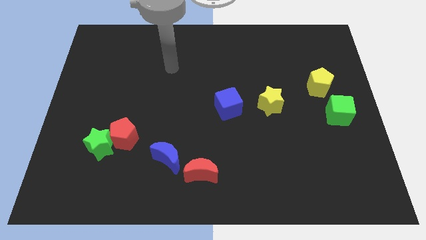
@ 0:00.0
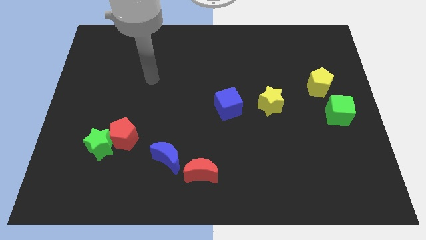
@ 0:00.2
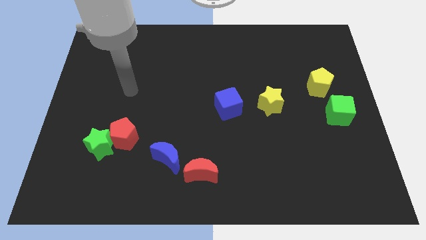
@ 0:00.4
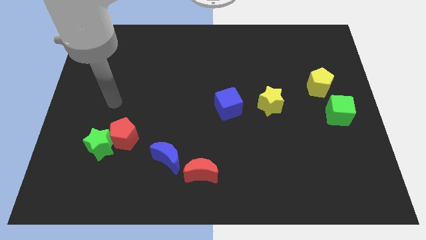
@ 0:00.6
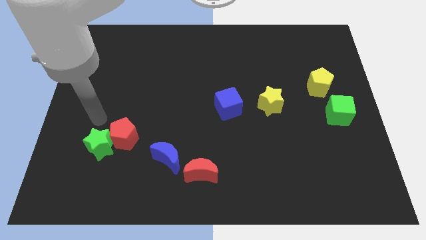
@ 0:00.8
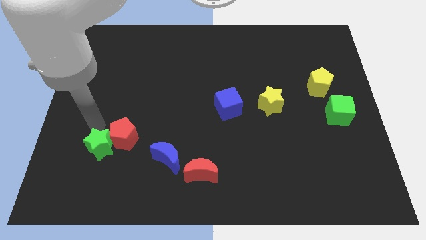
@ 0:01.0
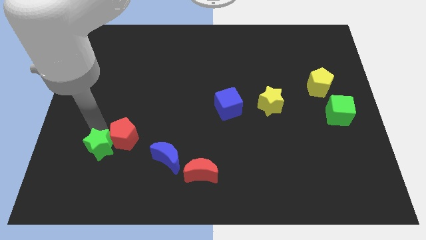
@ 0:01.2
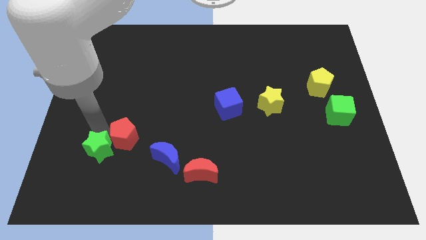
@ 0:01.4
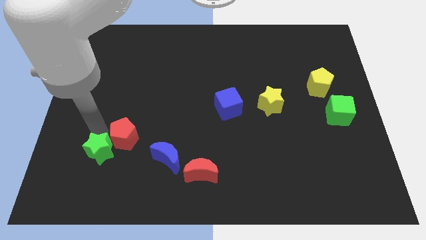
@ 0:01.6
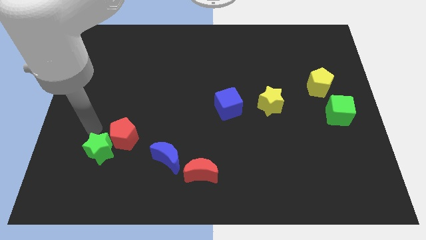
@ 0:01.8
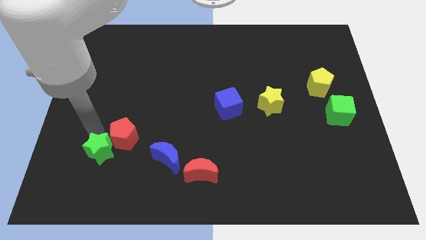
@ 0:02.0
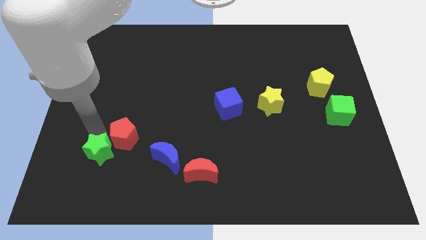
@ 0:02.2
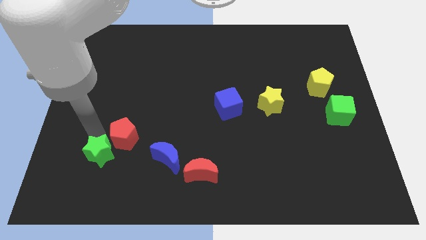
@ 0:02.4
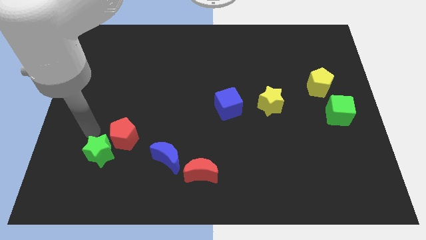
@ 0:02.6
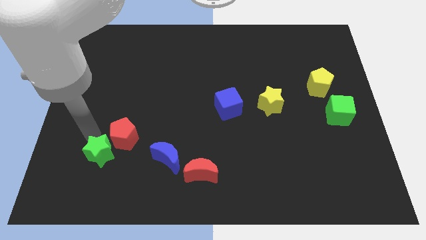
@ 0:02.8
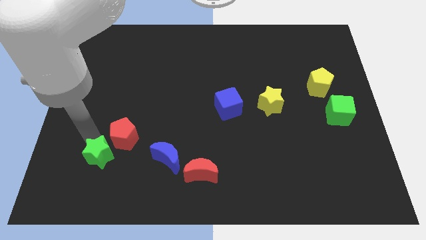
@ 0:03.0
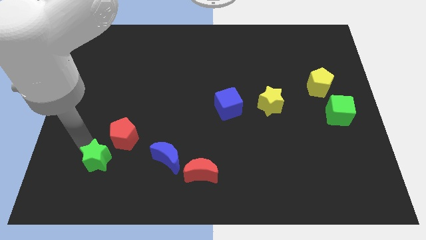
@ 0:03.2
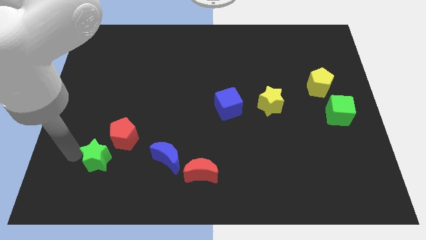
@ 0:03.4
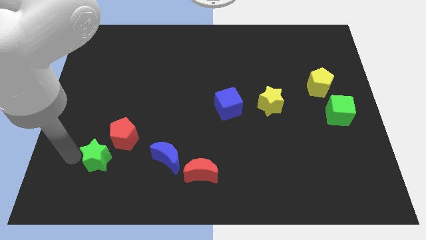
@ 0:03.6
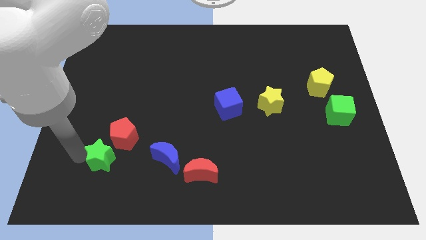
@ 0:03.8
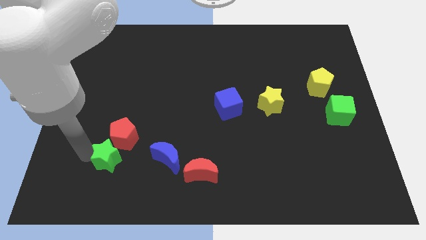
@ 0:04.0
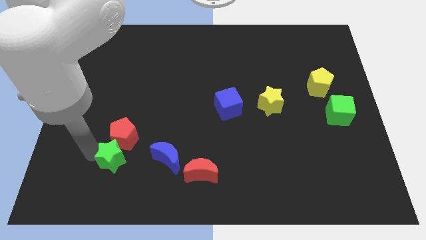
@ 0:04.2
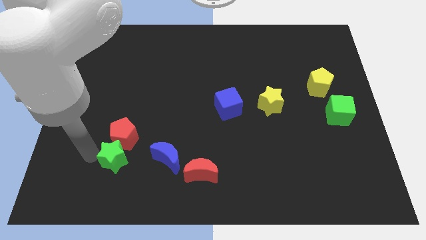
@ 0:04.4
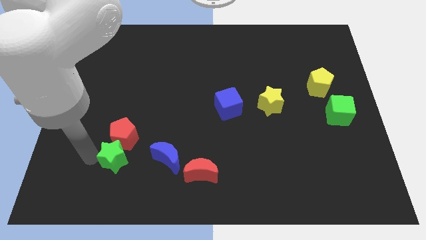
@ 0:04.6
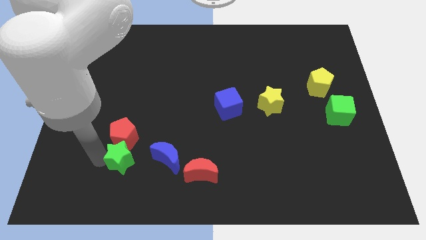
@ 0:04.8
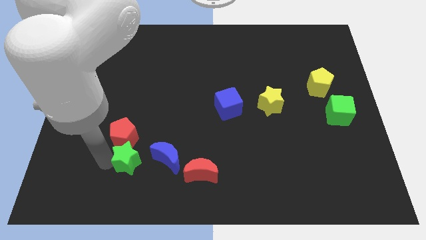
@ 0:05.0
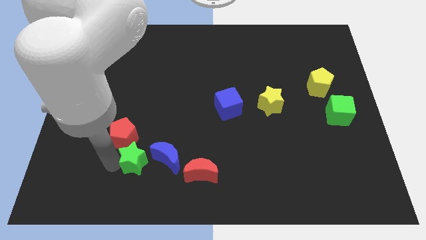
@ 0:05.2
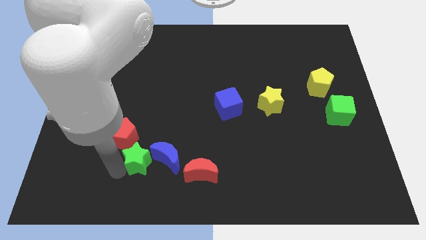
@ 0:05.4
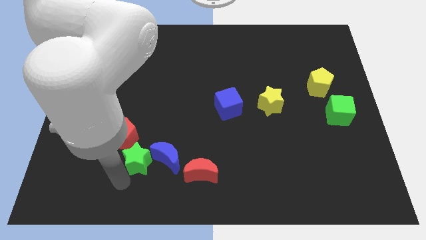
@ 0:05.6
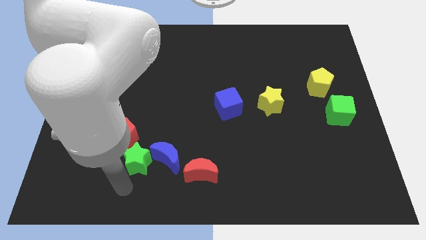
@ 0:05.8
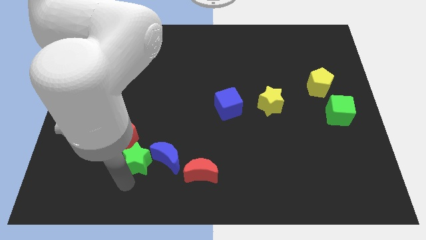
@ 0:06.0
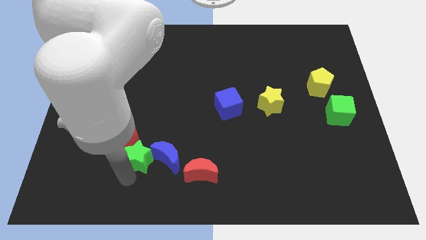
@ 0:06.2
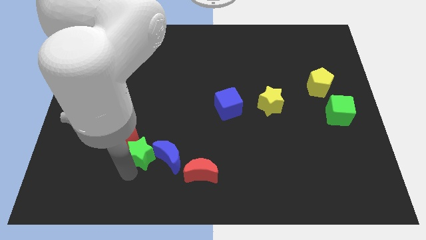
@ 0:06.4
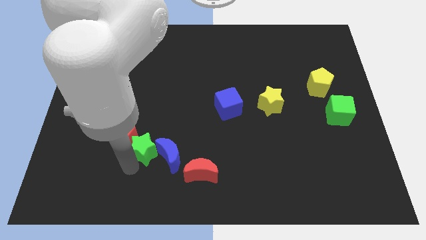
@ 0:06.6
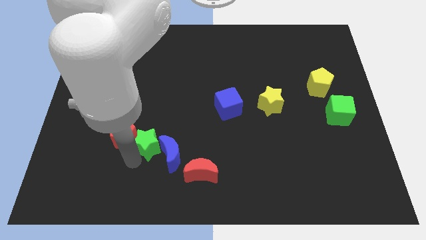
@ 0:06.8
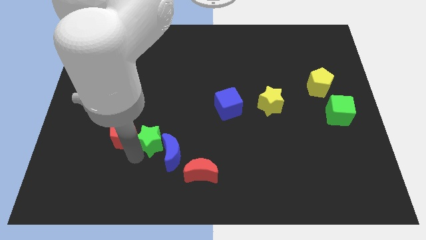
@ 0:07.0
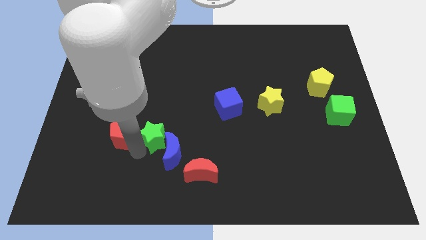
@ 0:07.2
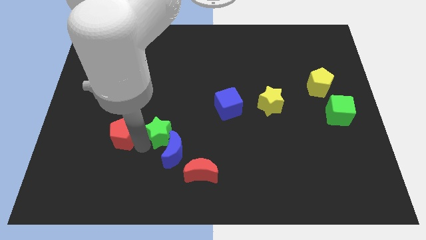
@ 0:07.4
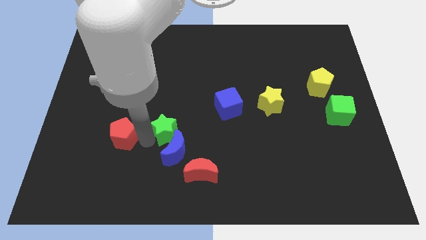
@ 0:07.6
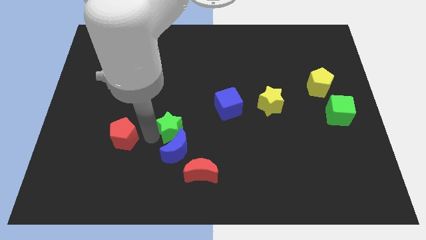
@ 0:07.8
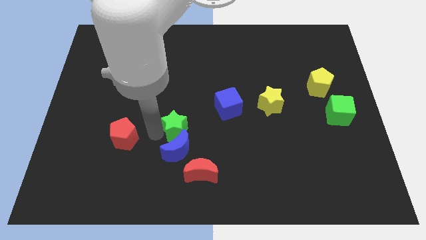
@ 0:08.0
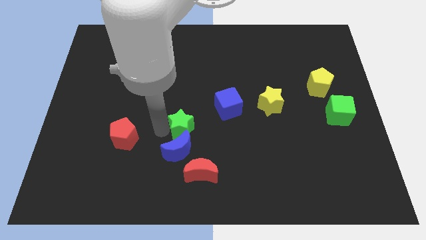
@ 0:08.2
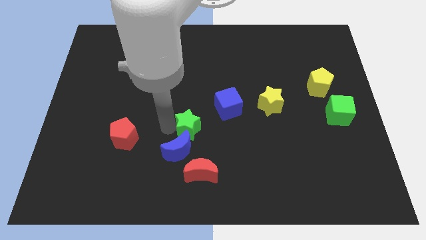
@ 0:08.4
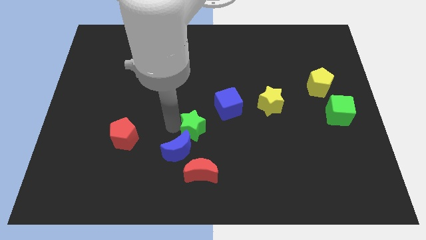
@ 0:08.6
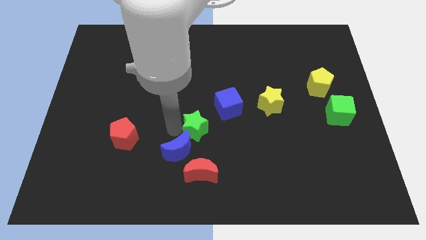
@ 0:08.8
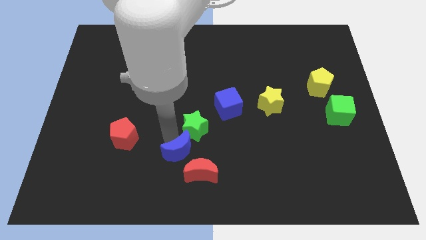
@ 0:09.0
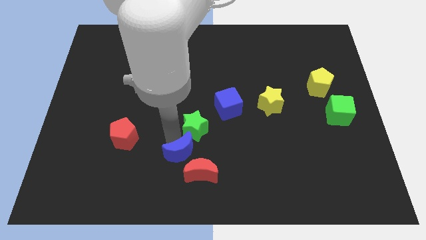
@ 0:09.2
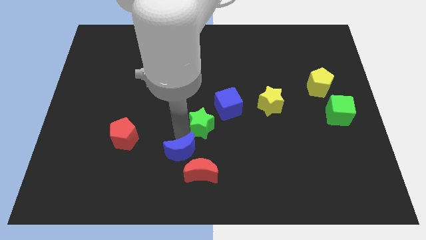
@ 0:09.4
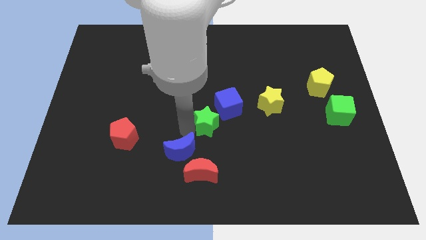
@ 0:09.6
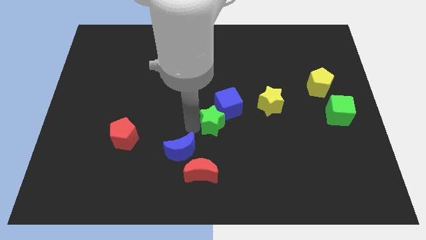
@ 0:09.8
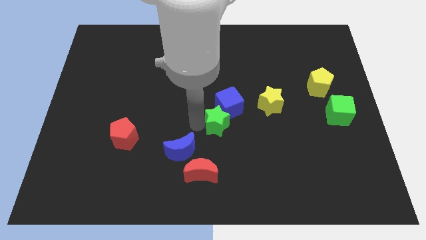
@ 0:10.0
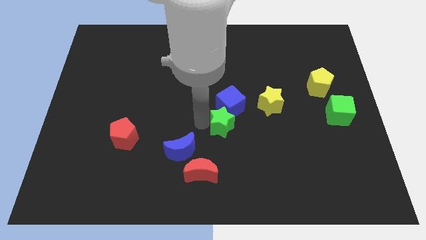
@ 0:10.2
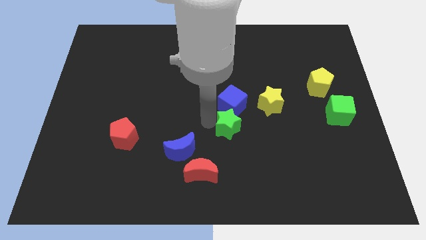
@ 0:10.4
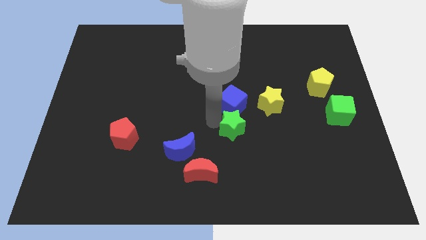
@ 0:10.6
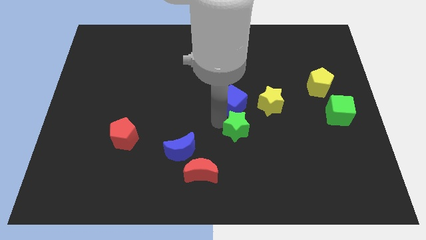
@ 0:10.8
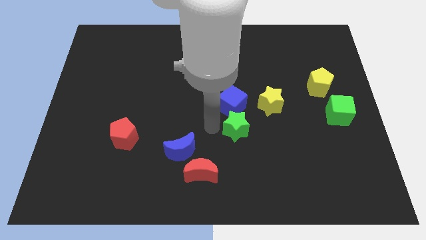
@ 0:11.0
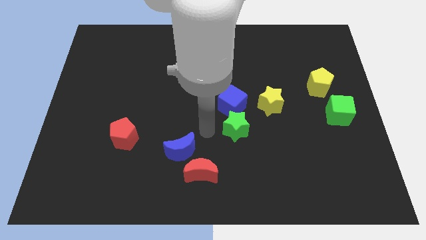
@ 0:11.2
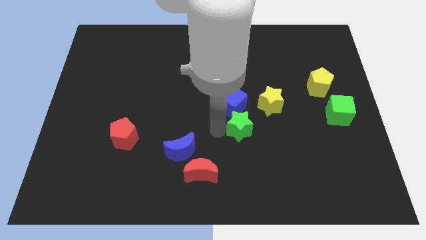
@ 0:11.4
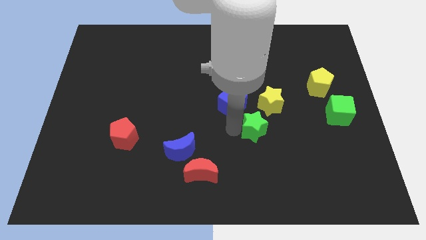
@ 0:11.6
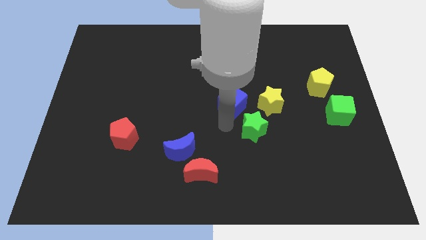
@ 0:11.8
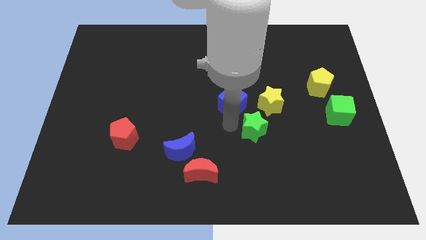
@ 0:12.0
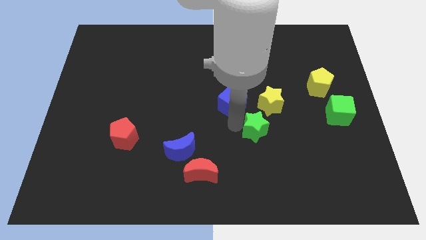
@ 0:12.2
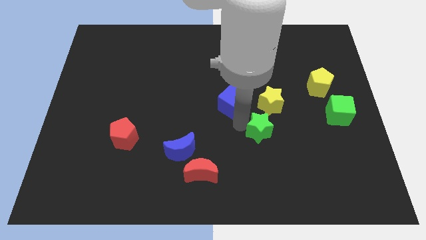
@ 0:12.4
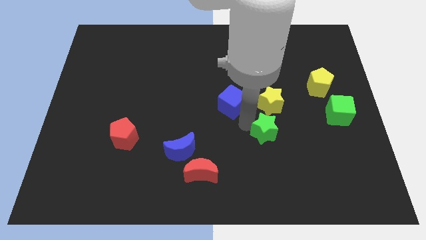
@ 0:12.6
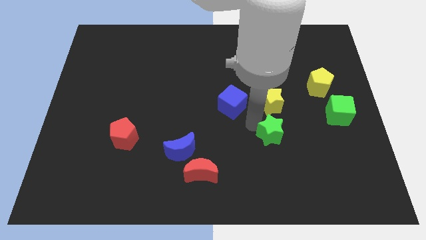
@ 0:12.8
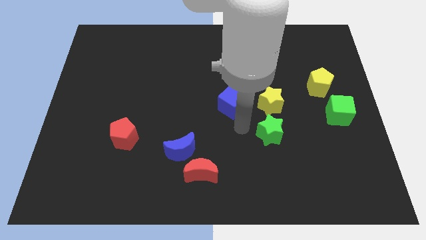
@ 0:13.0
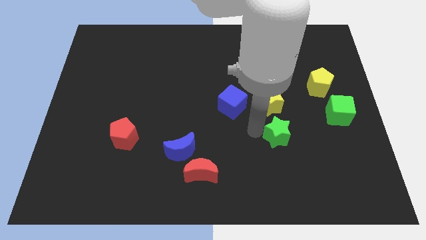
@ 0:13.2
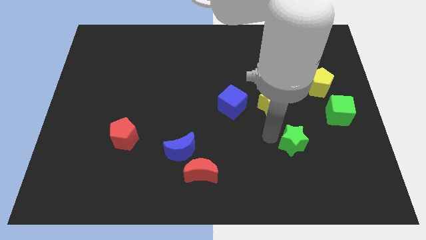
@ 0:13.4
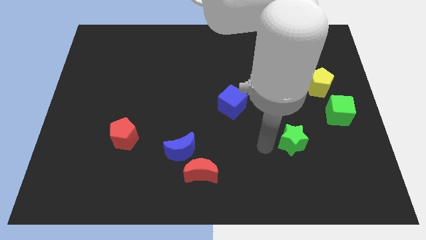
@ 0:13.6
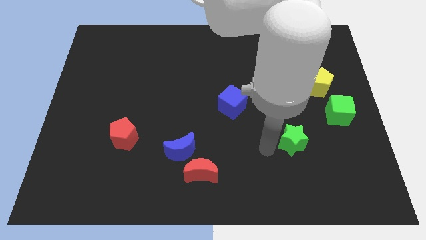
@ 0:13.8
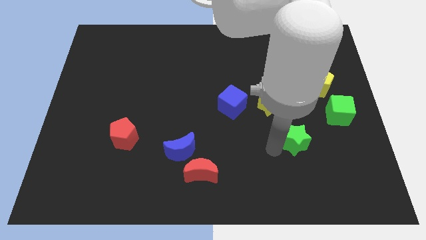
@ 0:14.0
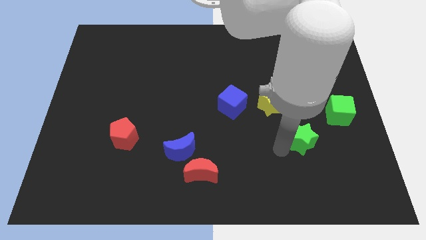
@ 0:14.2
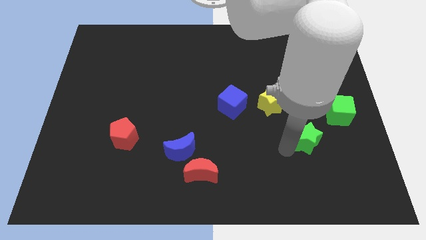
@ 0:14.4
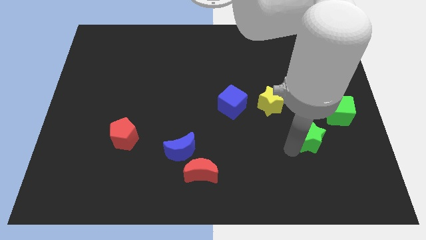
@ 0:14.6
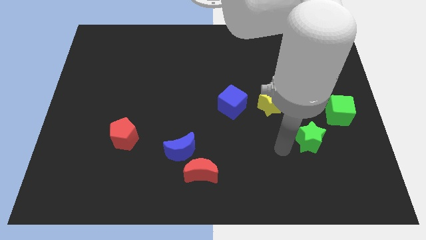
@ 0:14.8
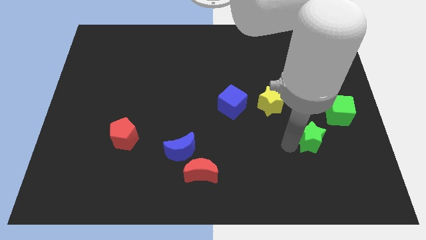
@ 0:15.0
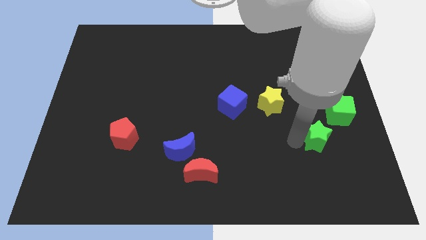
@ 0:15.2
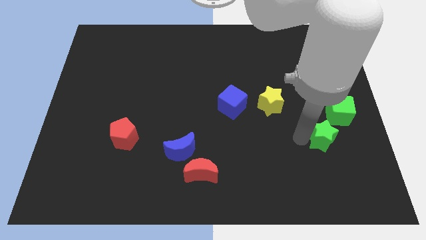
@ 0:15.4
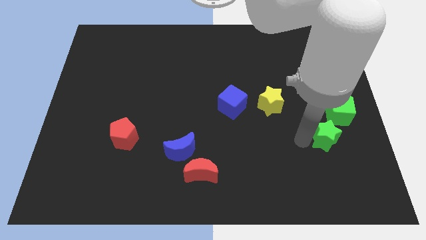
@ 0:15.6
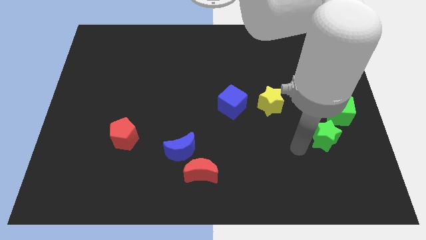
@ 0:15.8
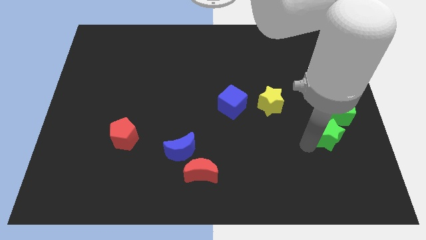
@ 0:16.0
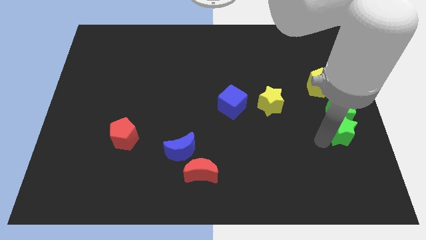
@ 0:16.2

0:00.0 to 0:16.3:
move the green star to the right side
